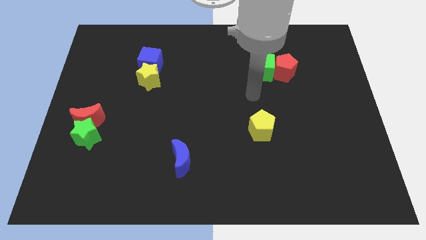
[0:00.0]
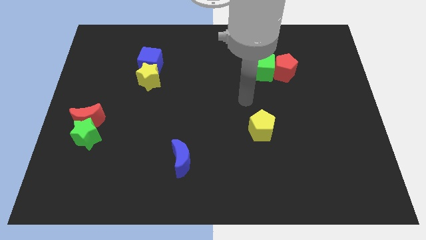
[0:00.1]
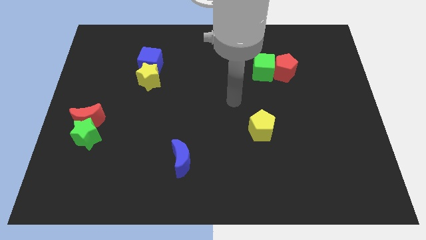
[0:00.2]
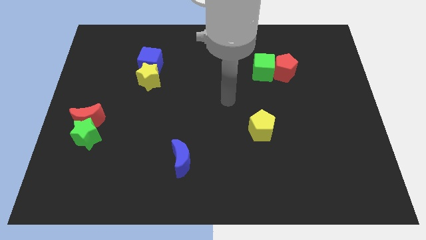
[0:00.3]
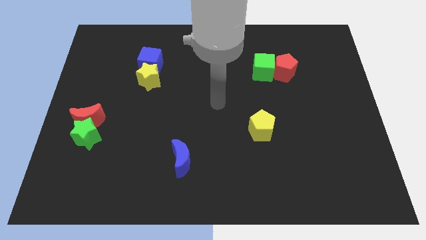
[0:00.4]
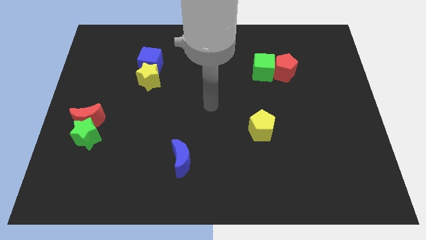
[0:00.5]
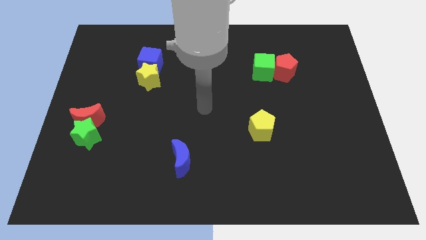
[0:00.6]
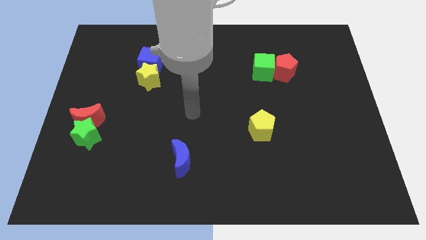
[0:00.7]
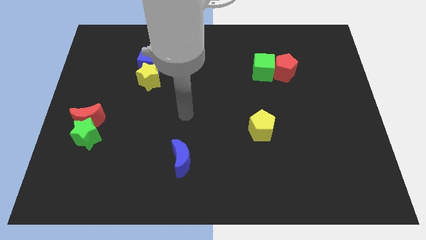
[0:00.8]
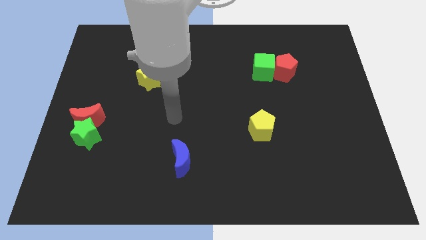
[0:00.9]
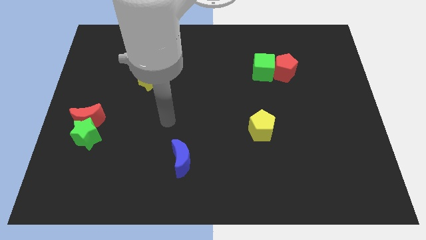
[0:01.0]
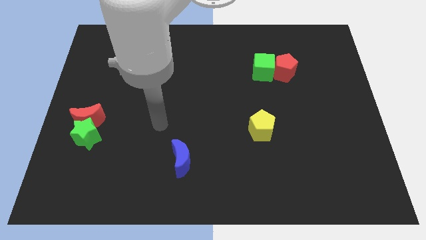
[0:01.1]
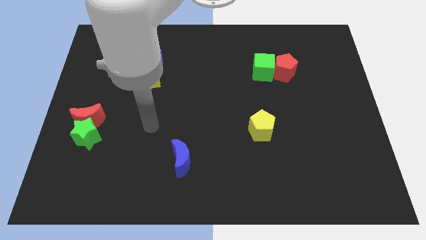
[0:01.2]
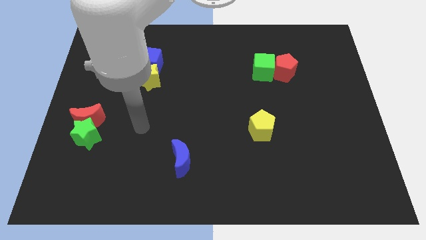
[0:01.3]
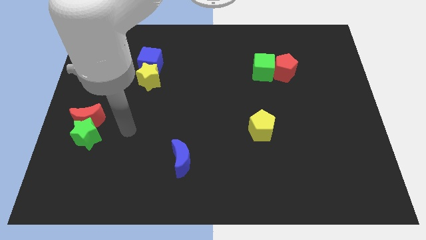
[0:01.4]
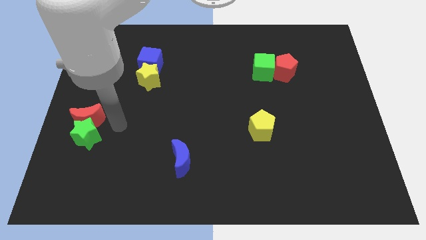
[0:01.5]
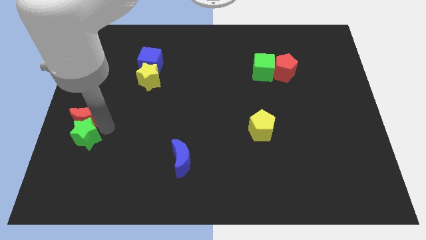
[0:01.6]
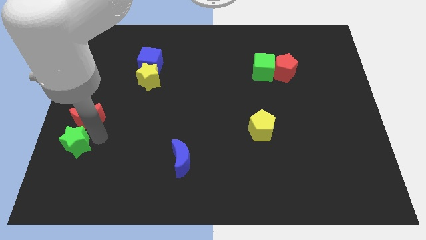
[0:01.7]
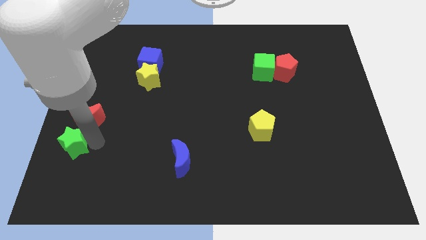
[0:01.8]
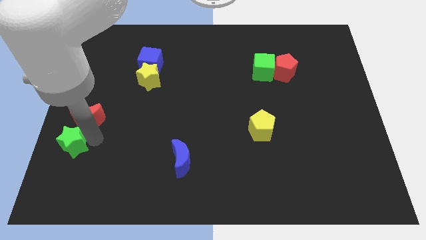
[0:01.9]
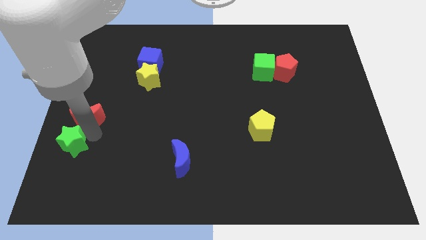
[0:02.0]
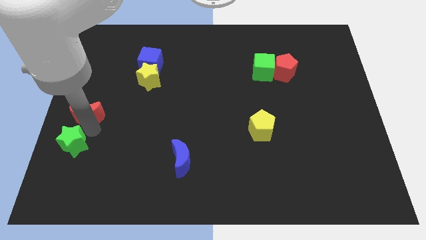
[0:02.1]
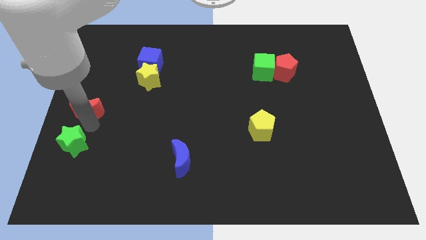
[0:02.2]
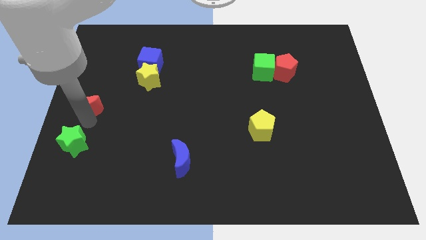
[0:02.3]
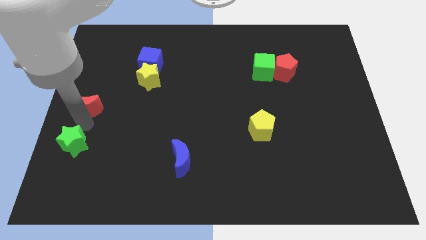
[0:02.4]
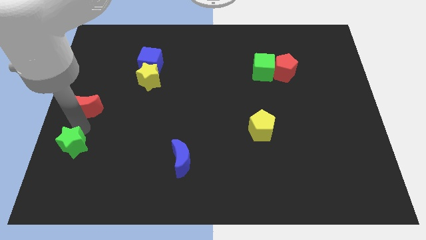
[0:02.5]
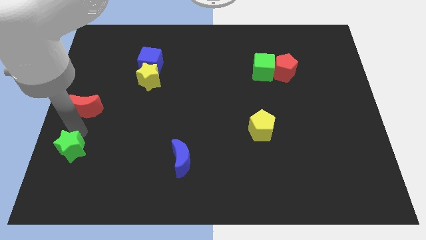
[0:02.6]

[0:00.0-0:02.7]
move the red moon away from the green star

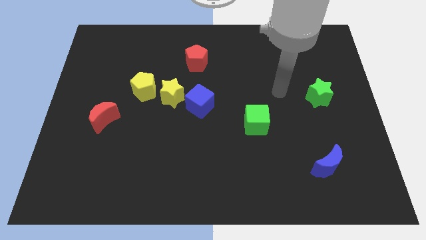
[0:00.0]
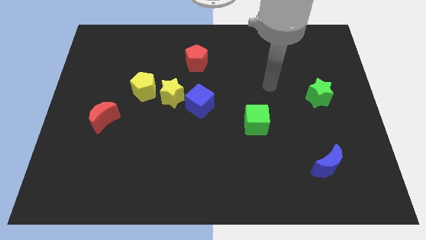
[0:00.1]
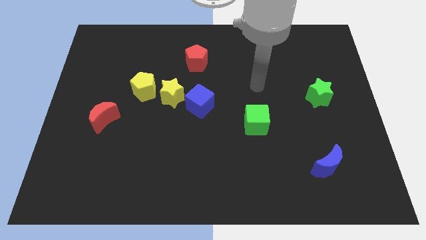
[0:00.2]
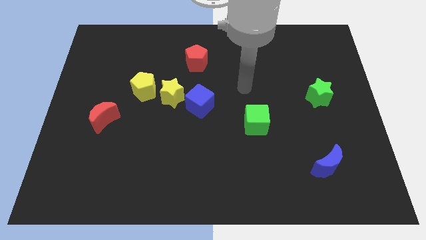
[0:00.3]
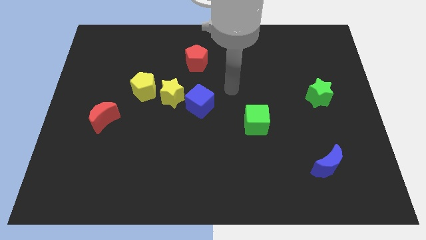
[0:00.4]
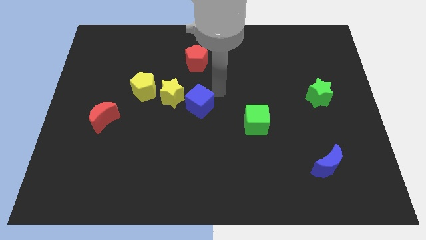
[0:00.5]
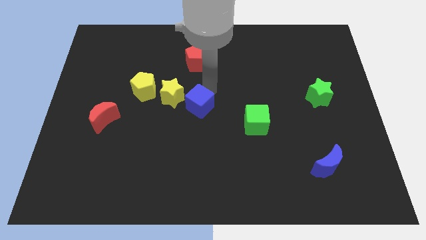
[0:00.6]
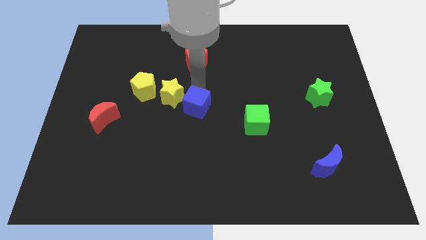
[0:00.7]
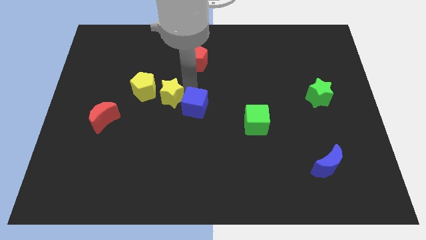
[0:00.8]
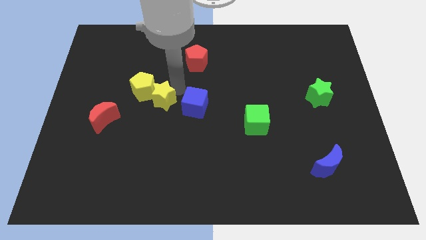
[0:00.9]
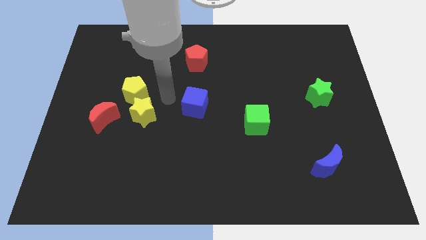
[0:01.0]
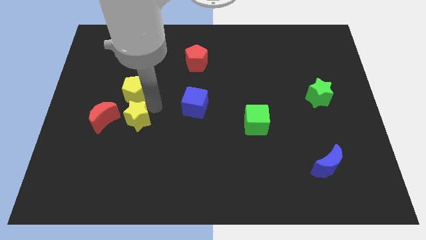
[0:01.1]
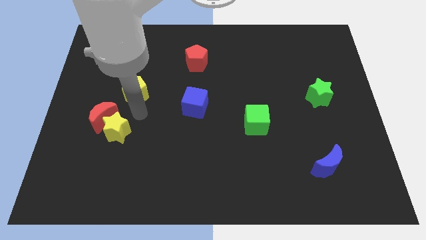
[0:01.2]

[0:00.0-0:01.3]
move the yellow pentagon away from the yellow star

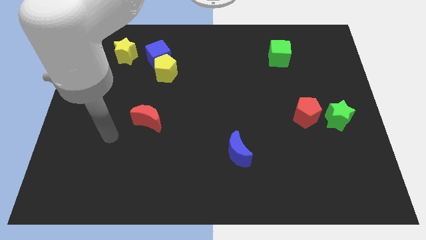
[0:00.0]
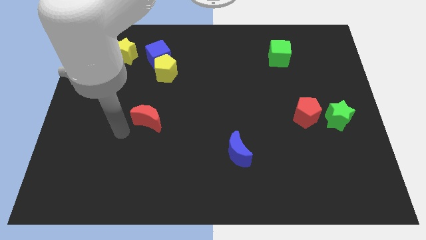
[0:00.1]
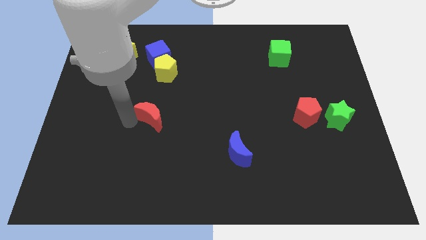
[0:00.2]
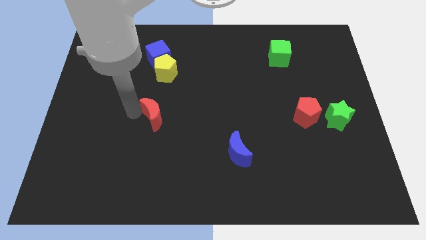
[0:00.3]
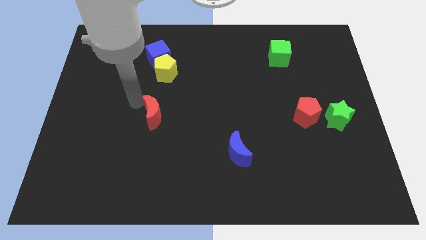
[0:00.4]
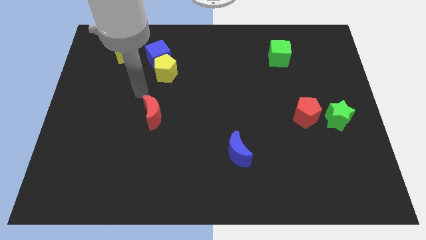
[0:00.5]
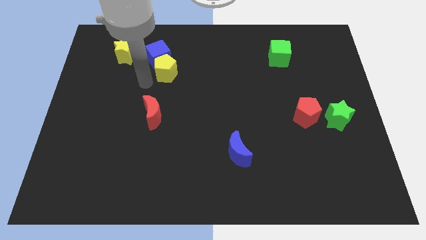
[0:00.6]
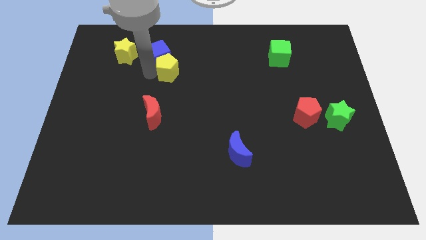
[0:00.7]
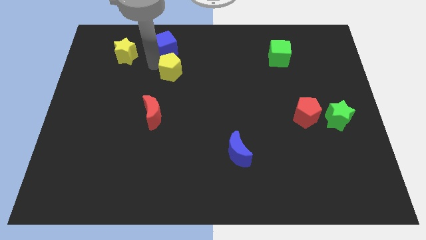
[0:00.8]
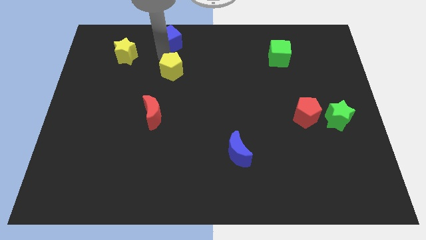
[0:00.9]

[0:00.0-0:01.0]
move the yellow pentagon away from the blue cube

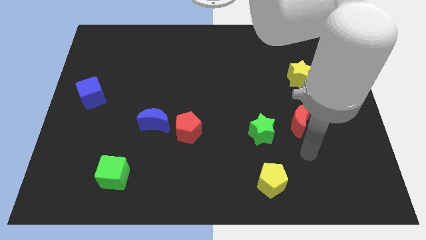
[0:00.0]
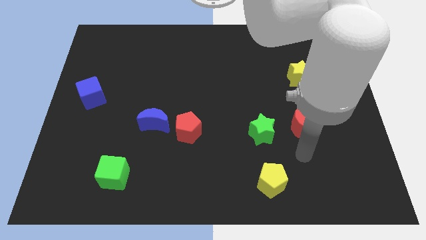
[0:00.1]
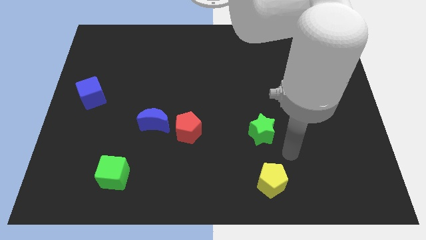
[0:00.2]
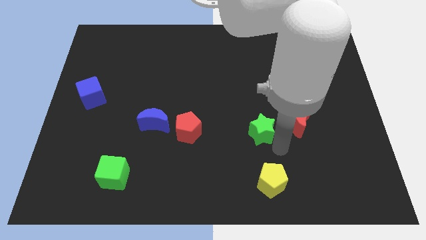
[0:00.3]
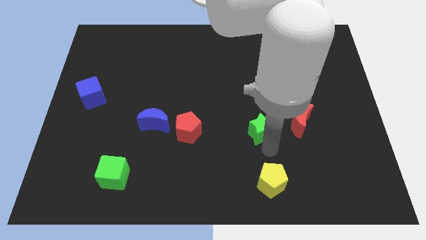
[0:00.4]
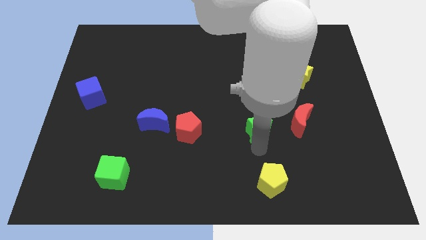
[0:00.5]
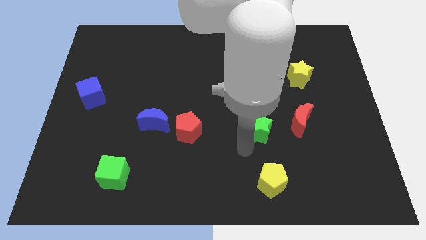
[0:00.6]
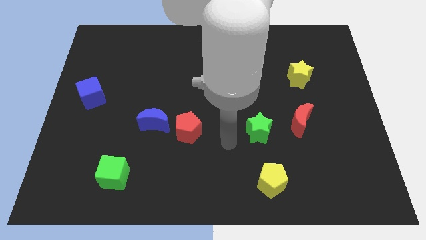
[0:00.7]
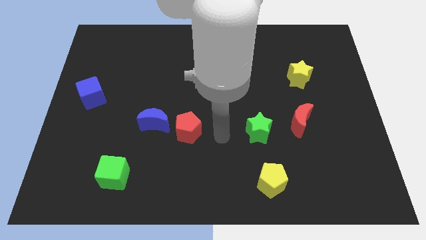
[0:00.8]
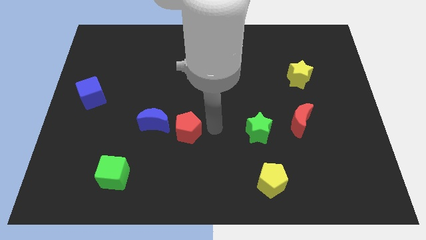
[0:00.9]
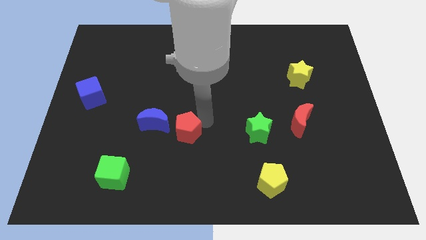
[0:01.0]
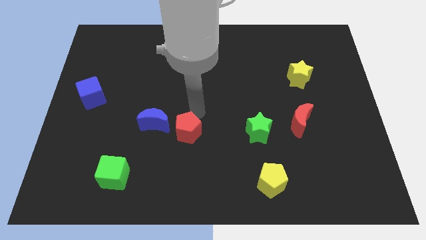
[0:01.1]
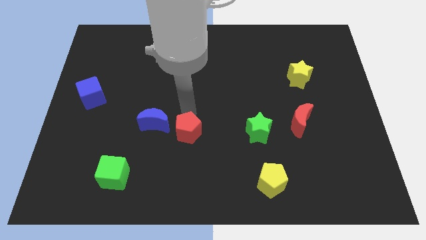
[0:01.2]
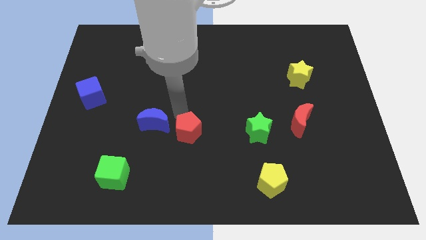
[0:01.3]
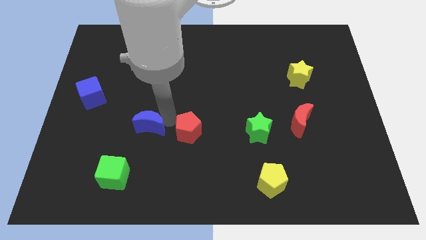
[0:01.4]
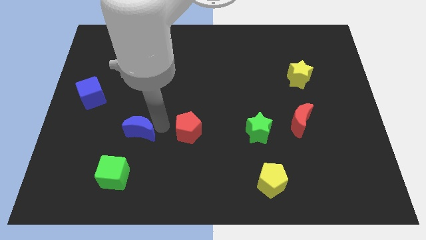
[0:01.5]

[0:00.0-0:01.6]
separate the red pentagon from the blue moon

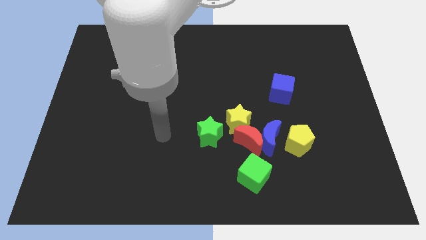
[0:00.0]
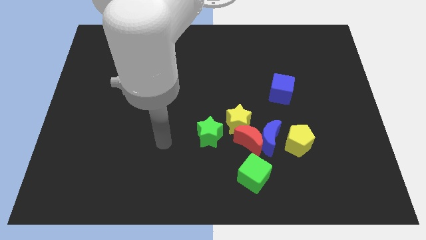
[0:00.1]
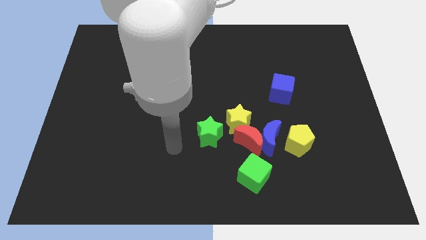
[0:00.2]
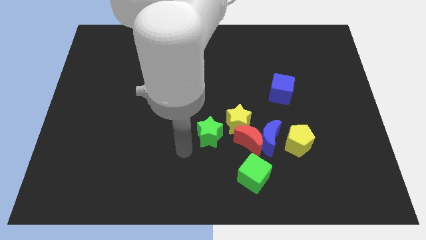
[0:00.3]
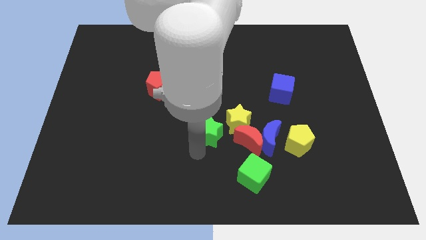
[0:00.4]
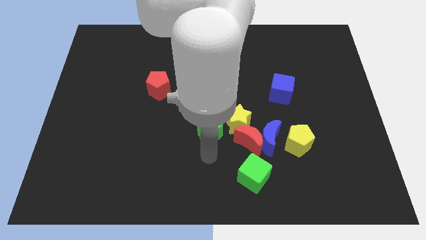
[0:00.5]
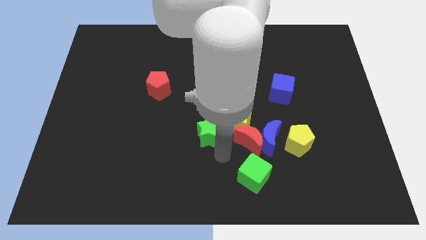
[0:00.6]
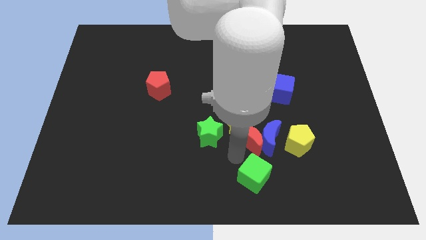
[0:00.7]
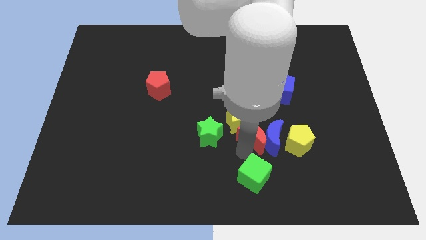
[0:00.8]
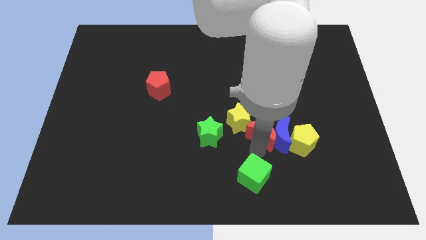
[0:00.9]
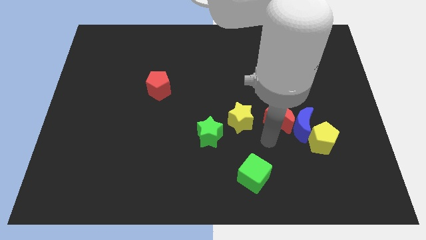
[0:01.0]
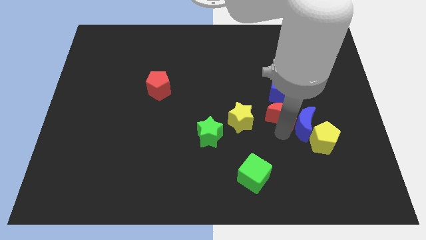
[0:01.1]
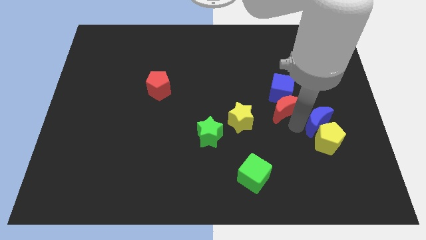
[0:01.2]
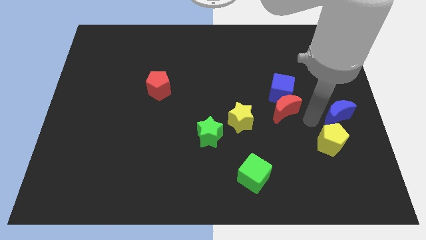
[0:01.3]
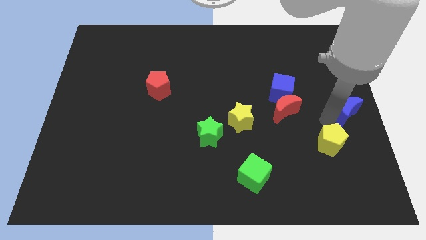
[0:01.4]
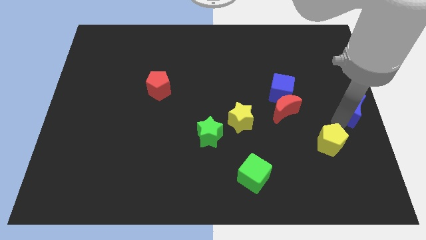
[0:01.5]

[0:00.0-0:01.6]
move the yellow pentagon away from the blue moon

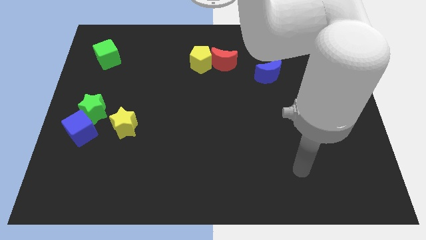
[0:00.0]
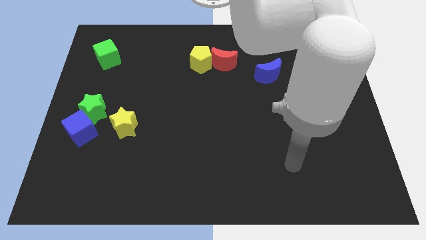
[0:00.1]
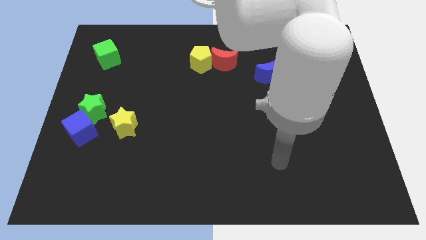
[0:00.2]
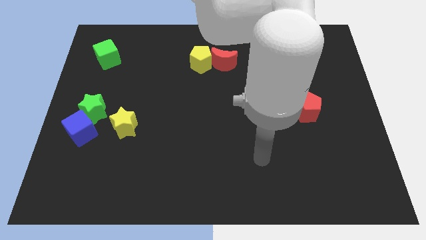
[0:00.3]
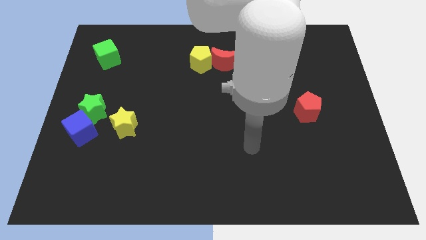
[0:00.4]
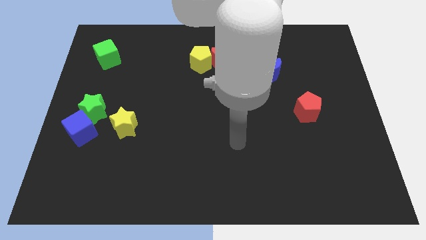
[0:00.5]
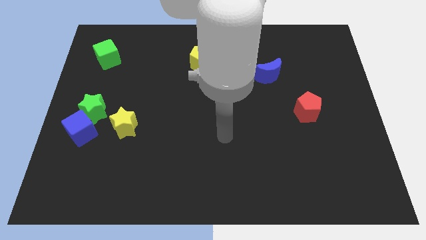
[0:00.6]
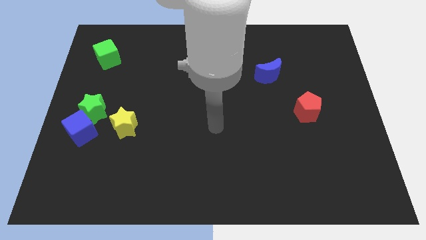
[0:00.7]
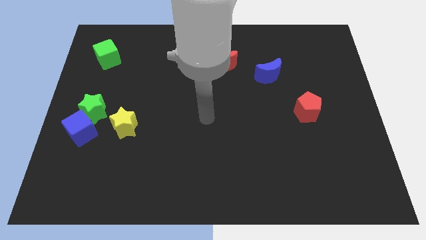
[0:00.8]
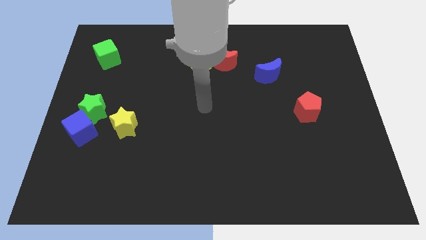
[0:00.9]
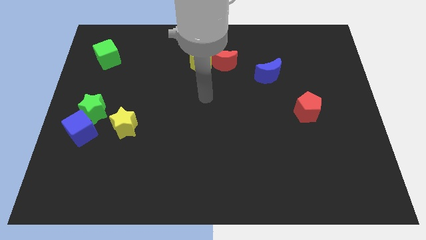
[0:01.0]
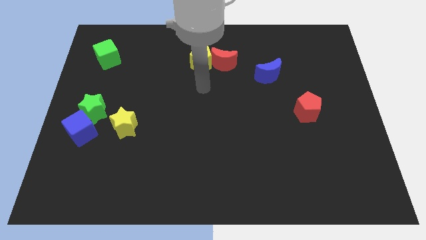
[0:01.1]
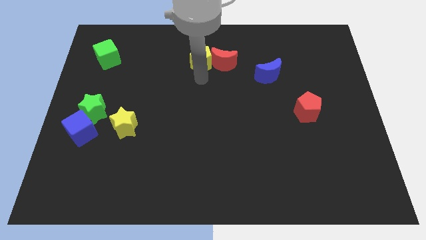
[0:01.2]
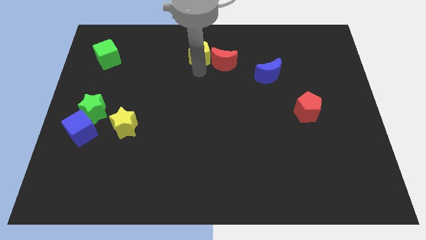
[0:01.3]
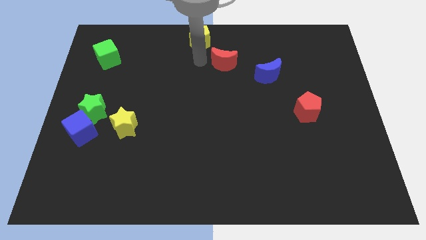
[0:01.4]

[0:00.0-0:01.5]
separate the red moon from the yellow pentagon
